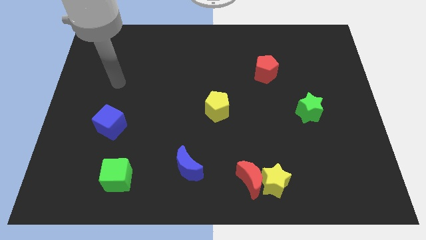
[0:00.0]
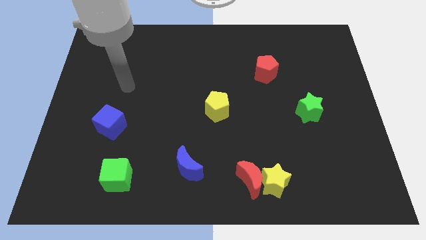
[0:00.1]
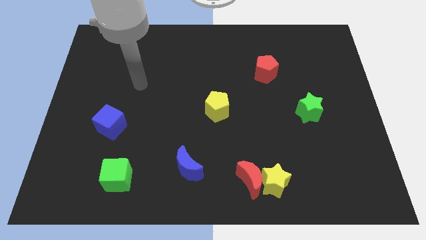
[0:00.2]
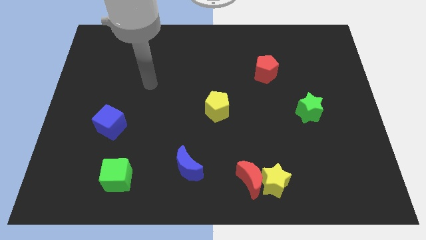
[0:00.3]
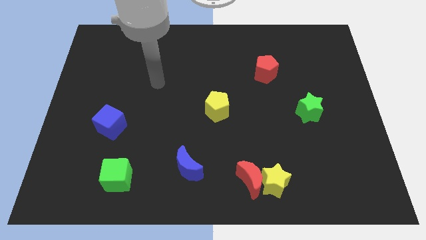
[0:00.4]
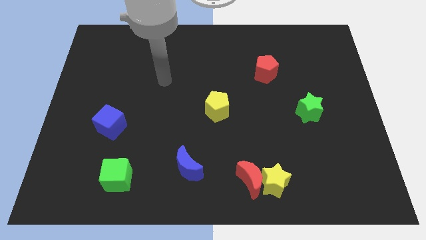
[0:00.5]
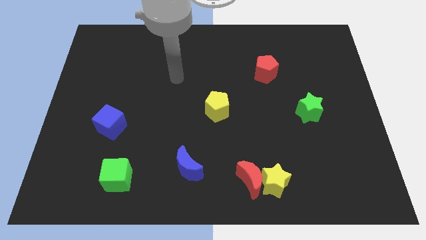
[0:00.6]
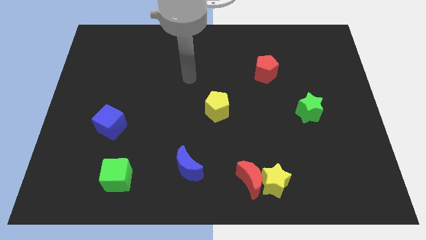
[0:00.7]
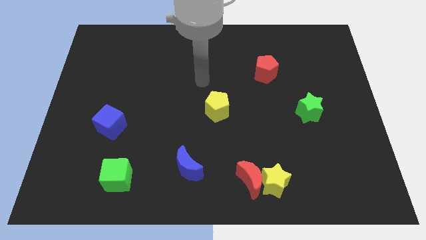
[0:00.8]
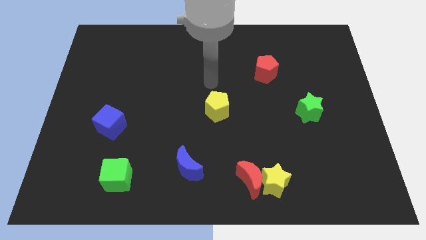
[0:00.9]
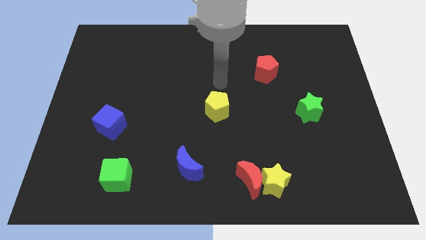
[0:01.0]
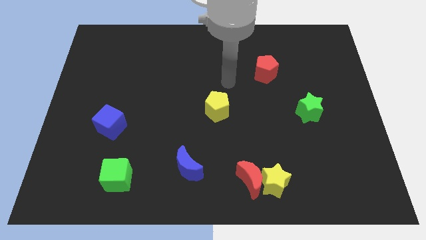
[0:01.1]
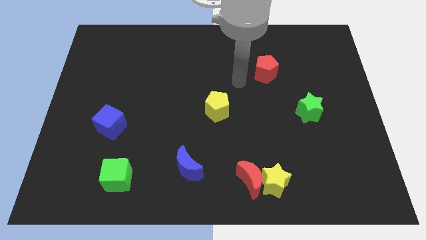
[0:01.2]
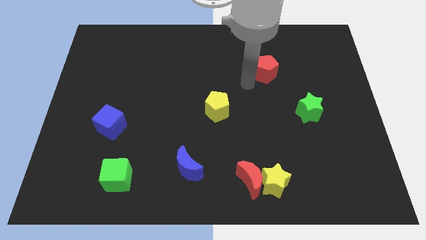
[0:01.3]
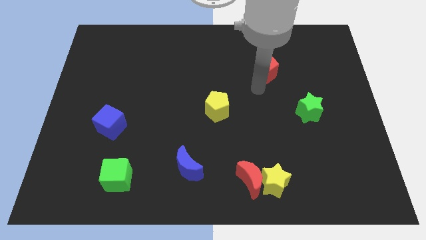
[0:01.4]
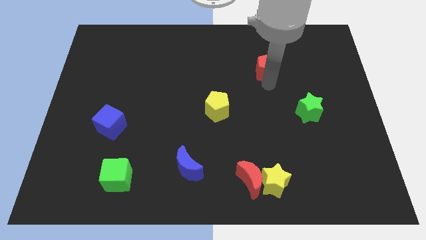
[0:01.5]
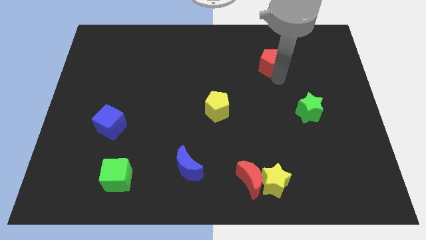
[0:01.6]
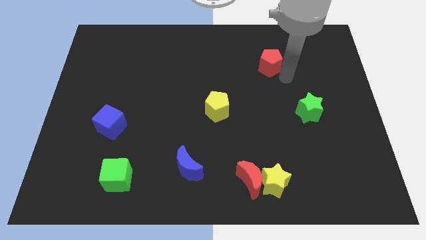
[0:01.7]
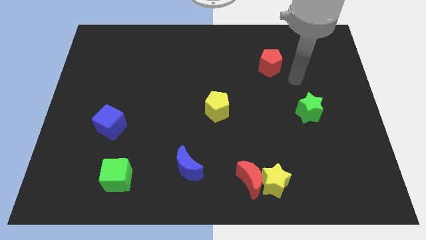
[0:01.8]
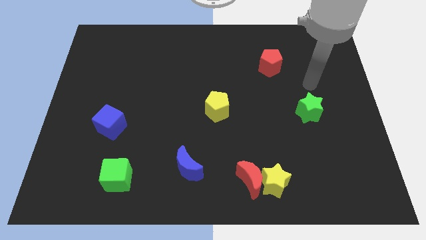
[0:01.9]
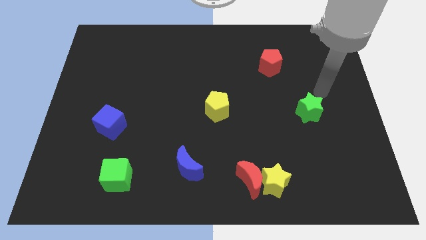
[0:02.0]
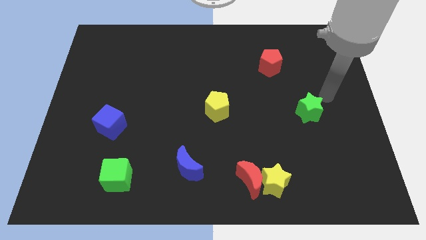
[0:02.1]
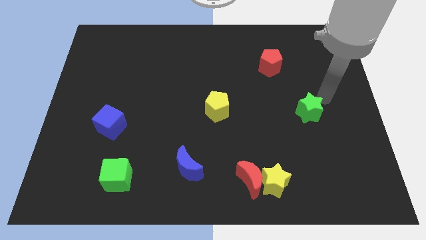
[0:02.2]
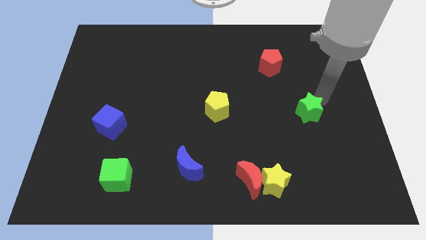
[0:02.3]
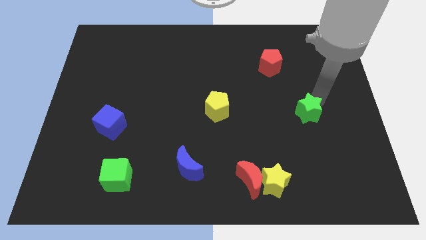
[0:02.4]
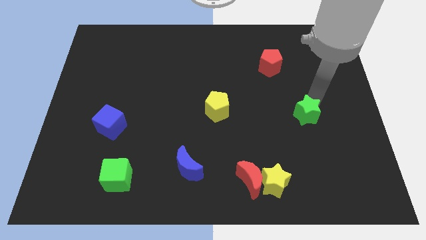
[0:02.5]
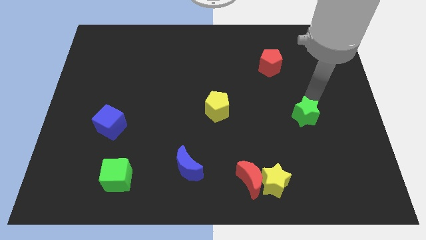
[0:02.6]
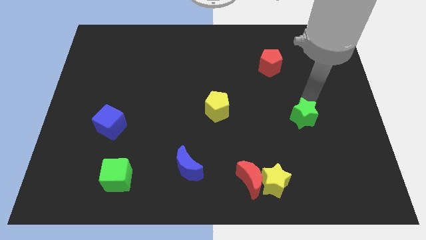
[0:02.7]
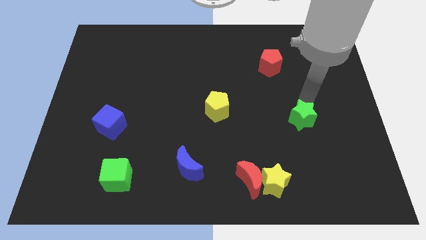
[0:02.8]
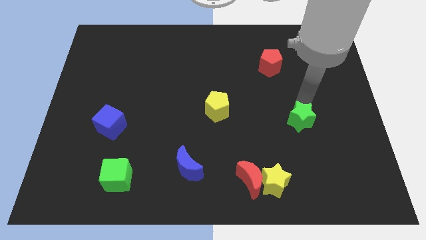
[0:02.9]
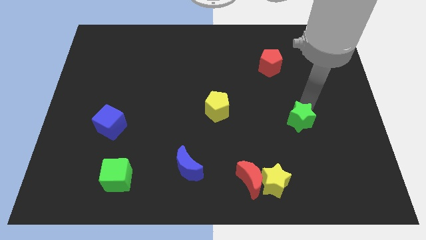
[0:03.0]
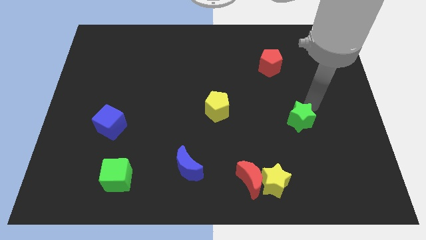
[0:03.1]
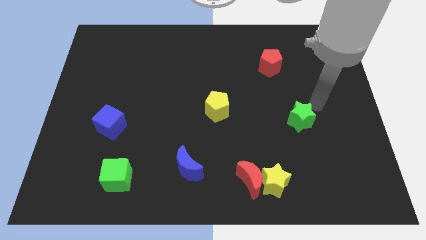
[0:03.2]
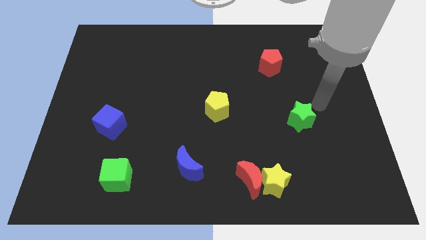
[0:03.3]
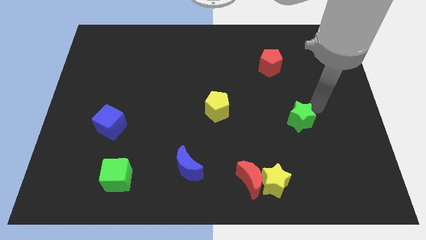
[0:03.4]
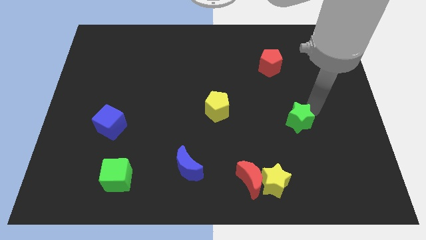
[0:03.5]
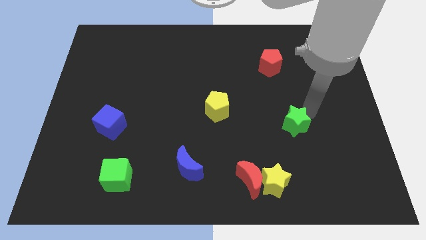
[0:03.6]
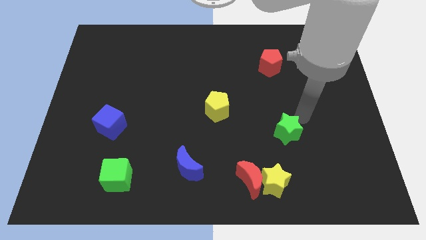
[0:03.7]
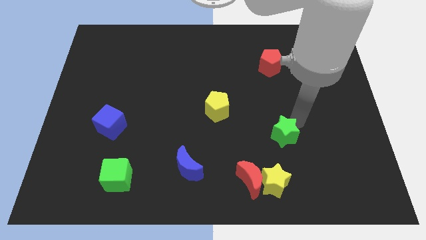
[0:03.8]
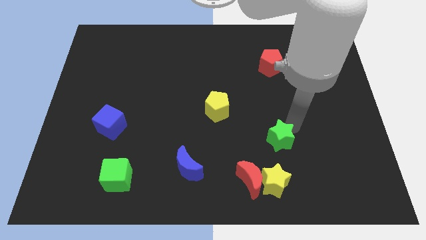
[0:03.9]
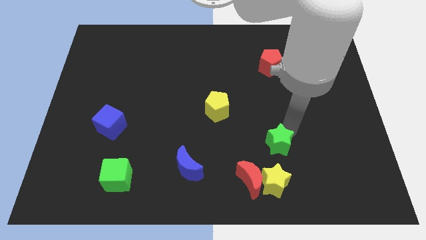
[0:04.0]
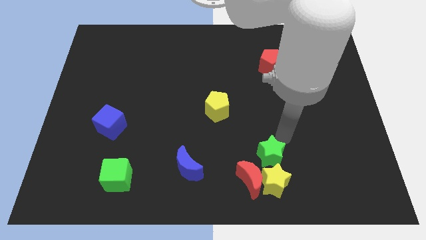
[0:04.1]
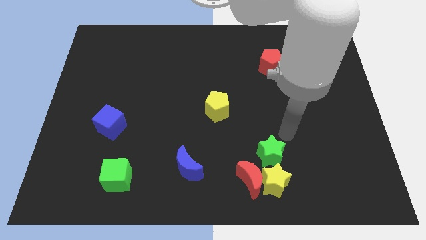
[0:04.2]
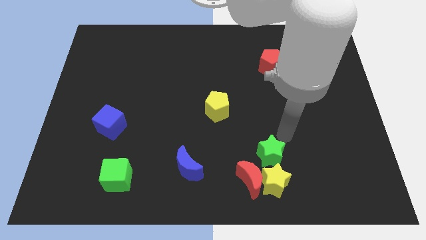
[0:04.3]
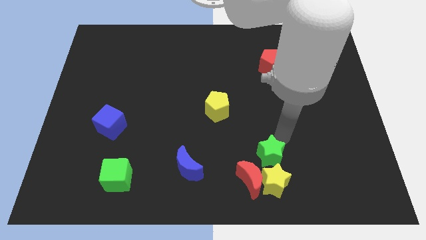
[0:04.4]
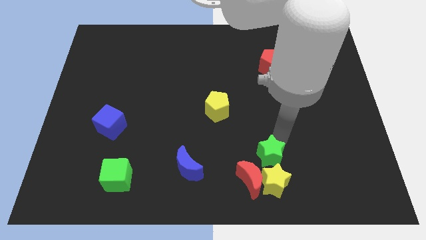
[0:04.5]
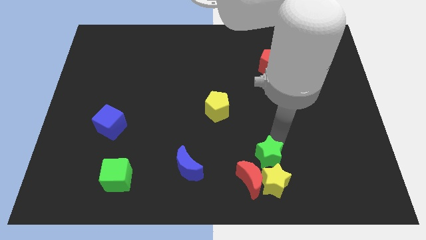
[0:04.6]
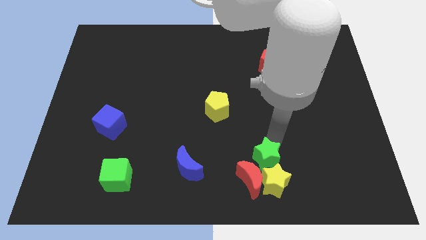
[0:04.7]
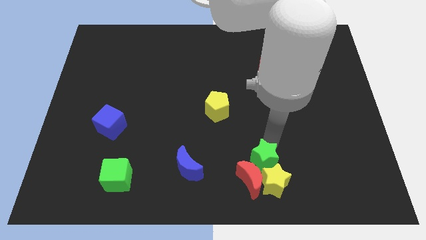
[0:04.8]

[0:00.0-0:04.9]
push the green star towards the red moon

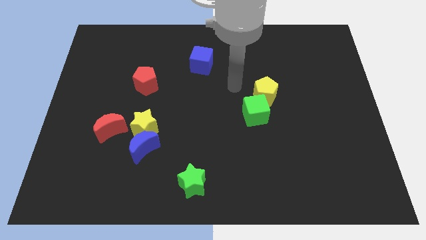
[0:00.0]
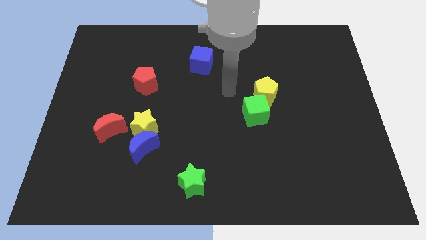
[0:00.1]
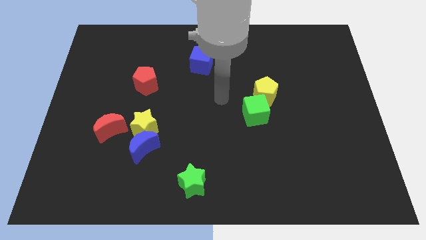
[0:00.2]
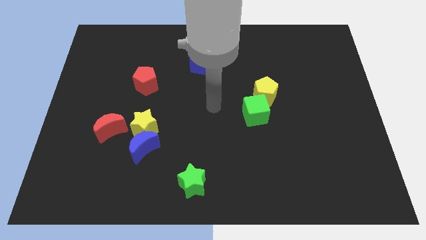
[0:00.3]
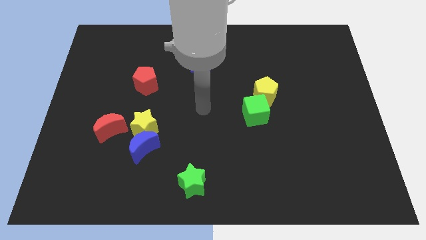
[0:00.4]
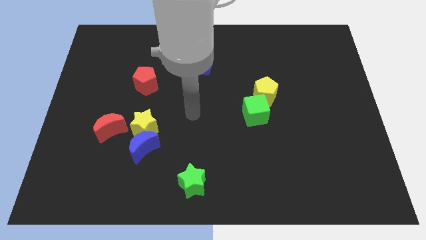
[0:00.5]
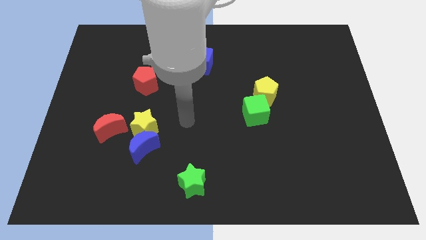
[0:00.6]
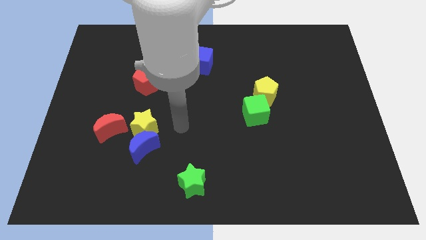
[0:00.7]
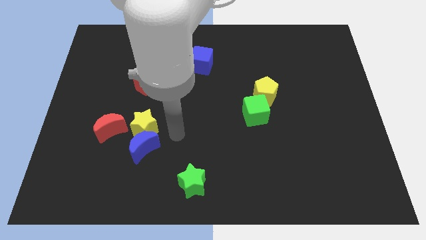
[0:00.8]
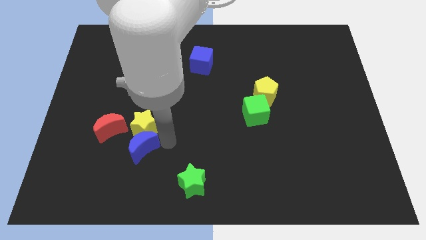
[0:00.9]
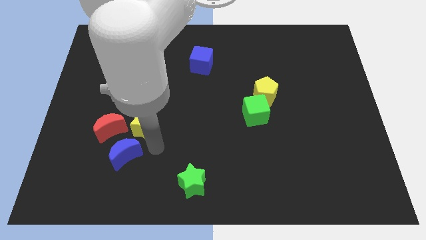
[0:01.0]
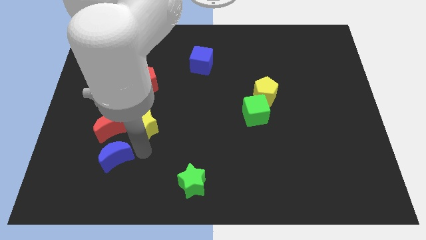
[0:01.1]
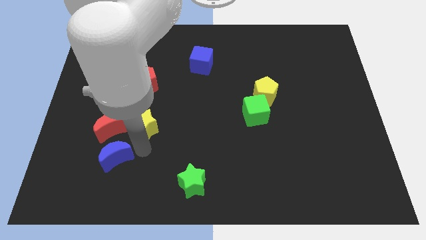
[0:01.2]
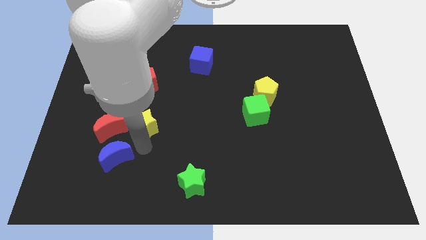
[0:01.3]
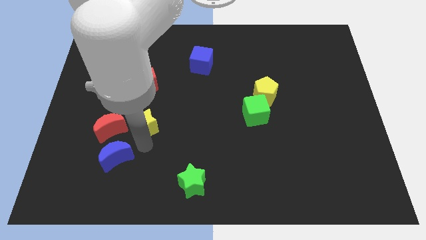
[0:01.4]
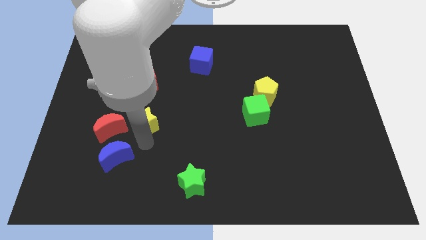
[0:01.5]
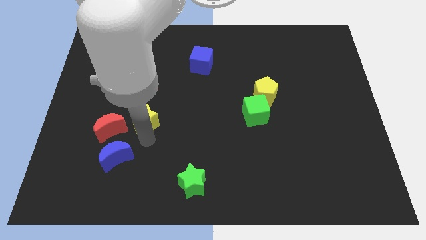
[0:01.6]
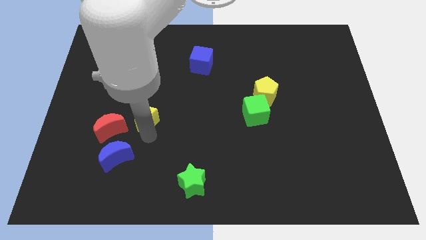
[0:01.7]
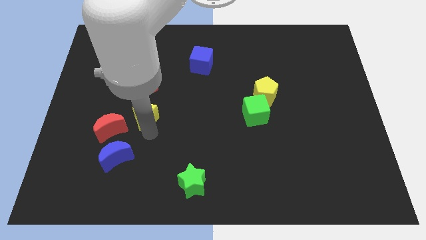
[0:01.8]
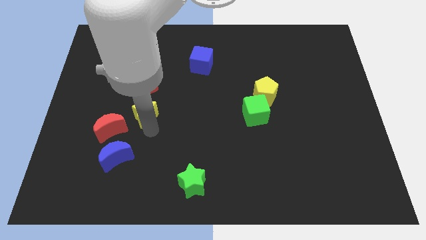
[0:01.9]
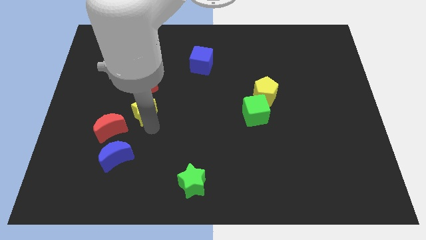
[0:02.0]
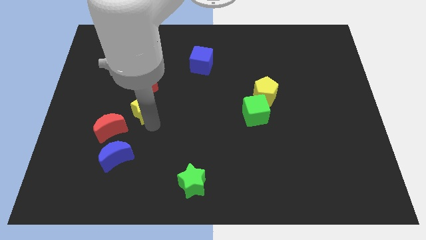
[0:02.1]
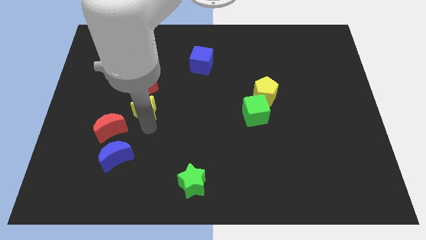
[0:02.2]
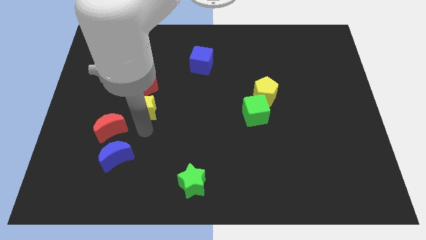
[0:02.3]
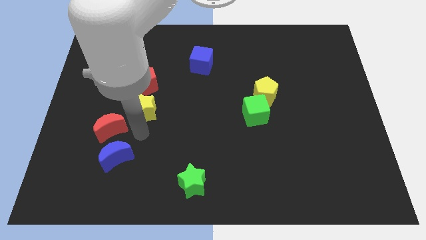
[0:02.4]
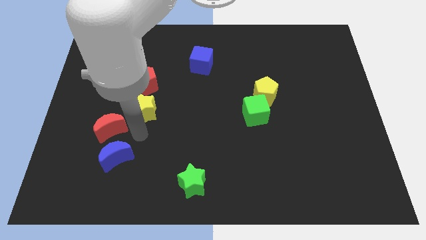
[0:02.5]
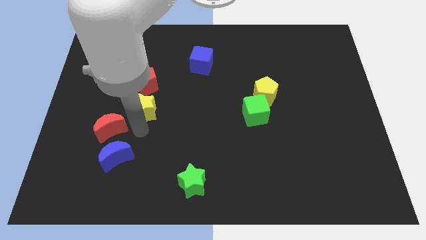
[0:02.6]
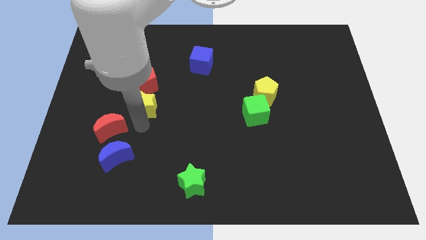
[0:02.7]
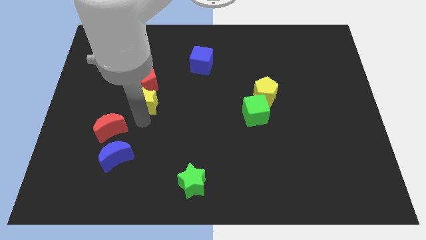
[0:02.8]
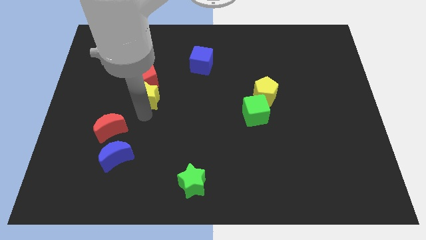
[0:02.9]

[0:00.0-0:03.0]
put the yellow star to the red pentagon
